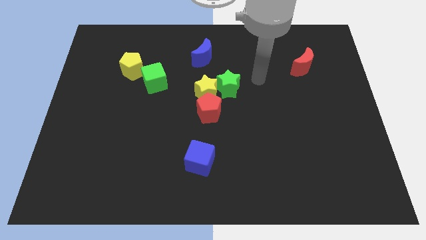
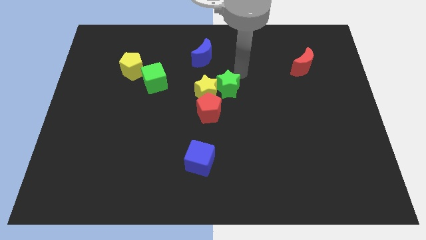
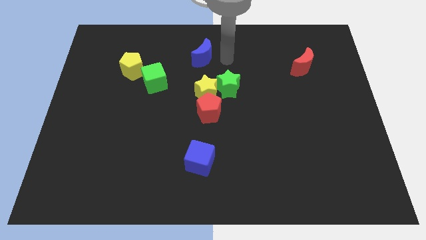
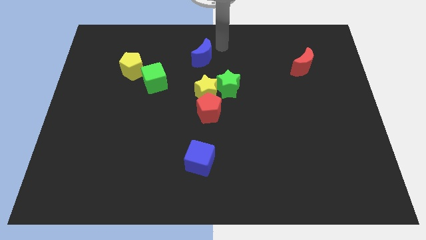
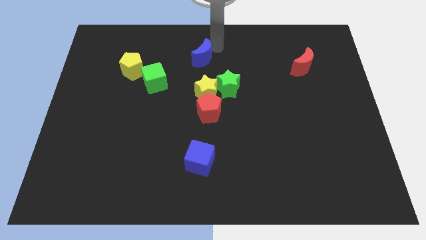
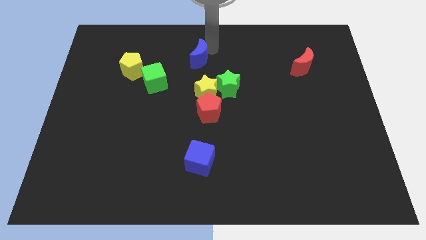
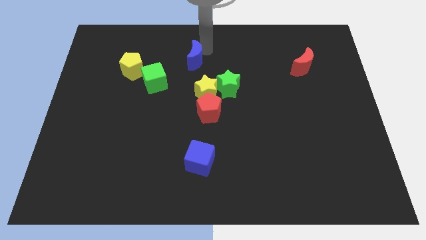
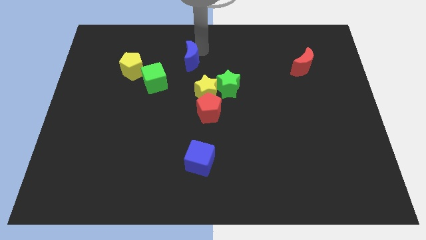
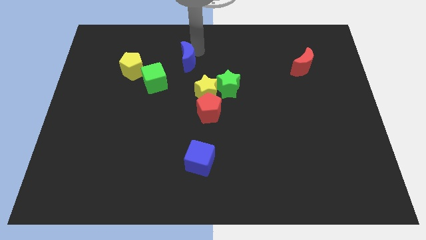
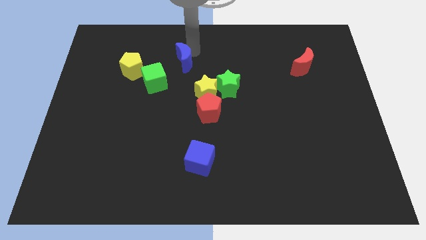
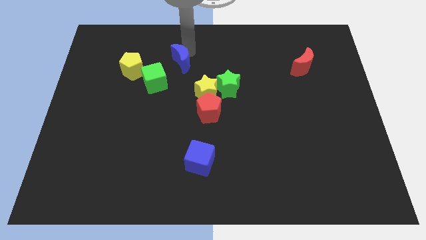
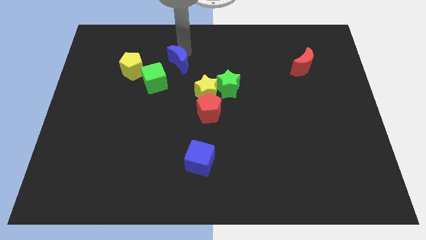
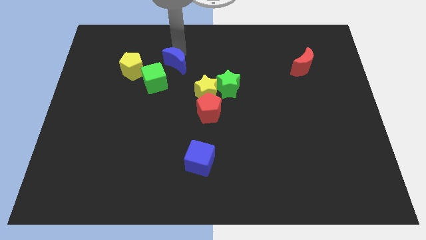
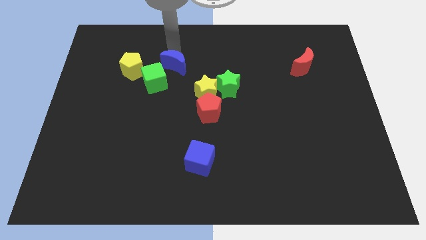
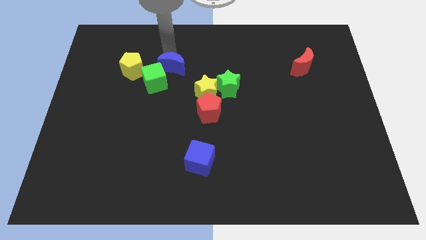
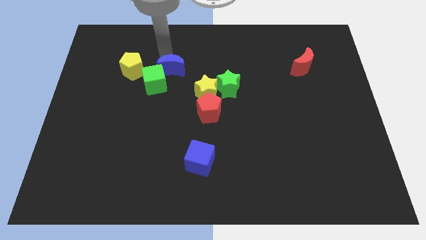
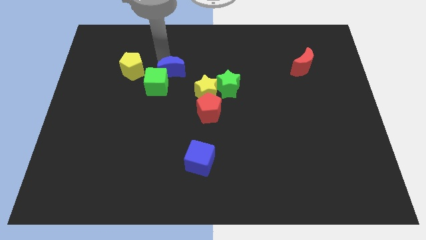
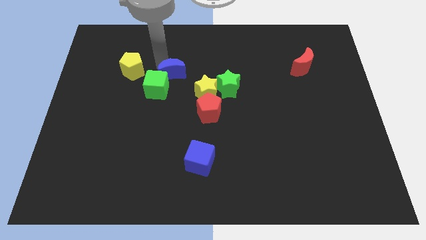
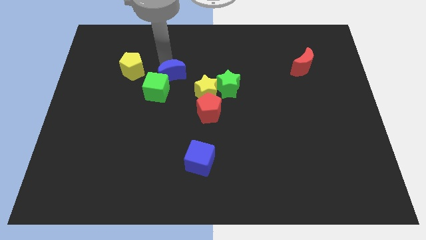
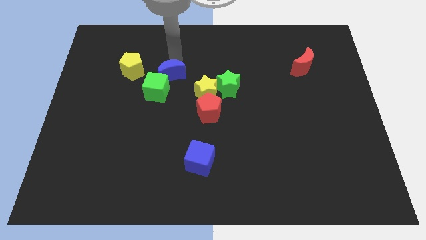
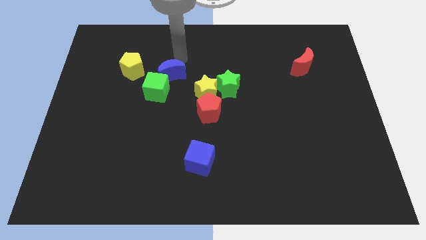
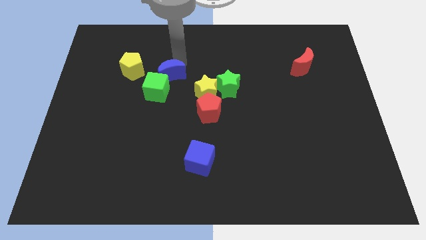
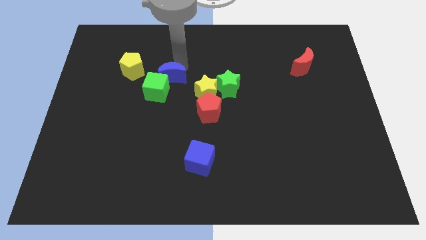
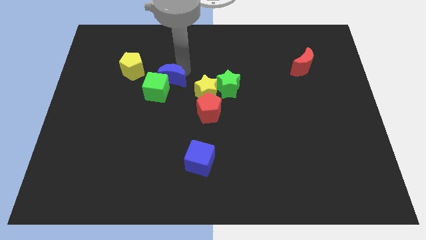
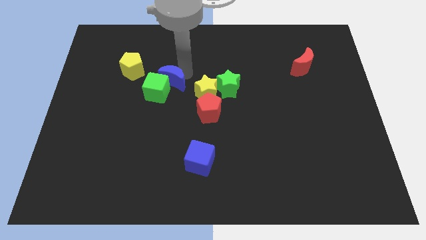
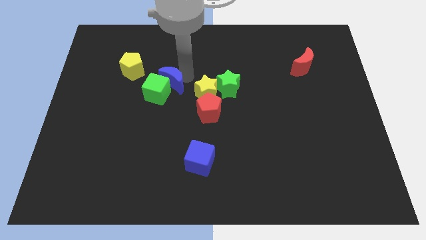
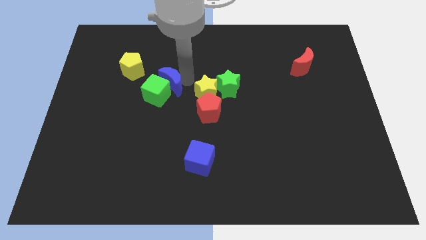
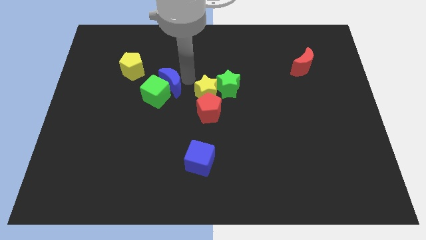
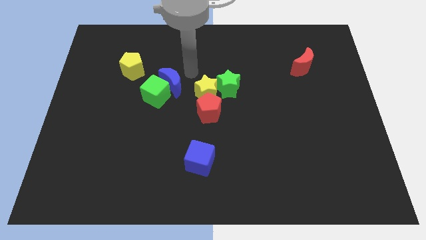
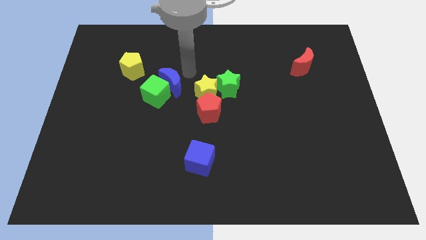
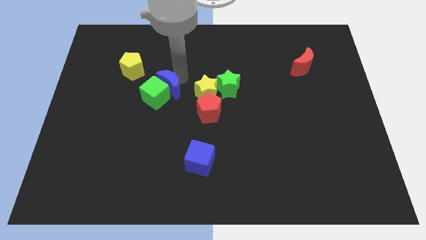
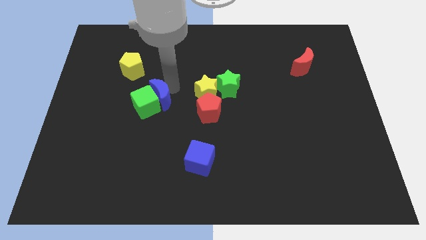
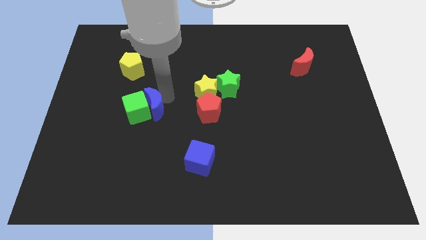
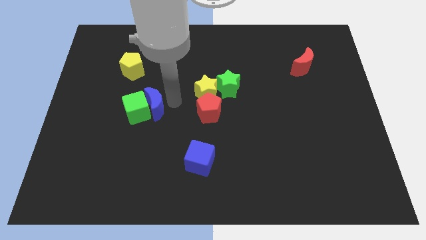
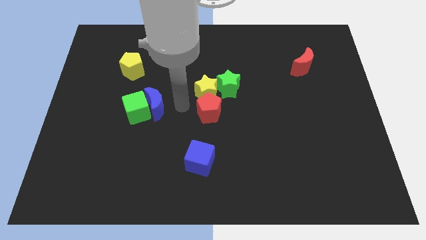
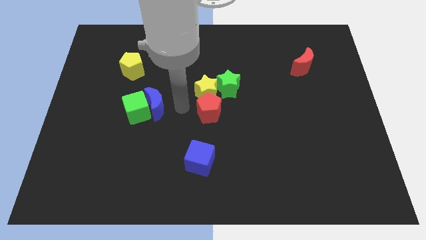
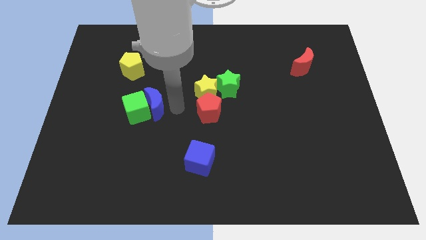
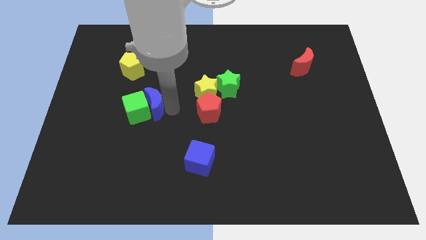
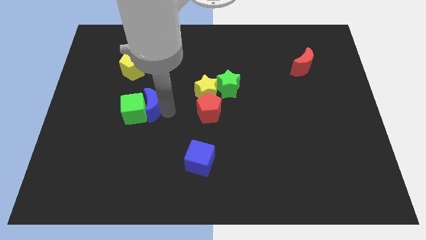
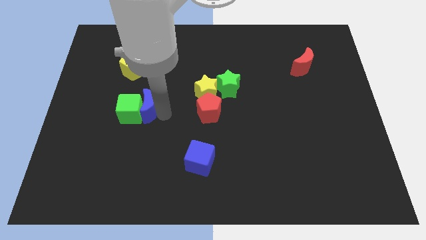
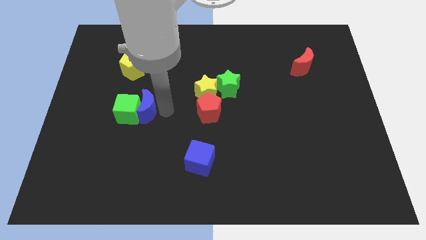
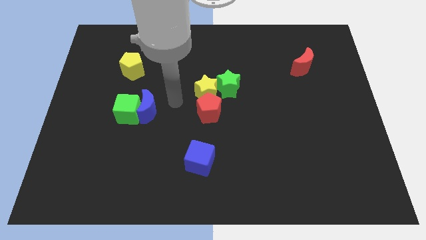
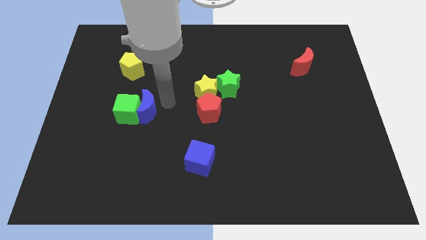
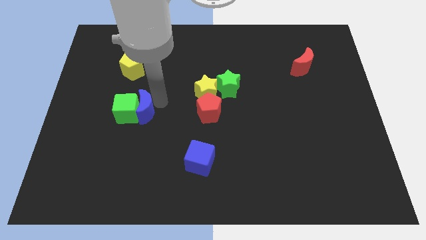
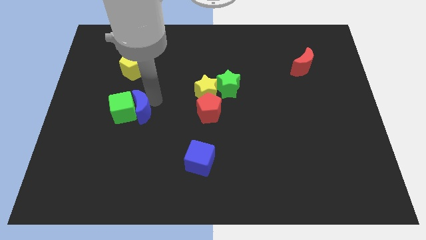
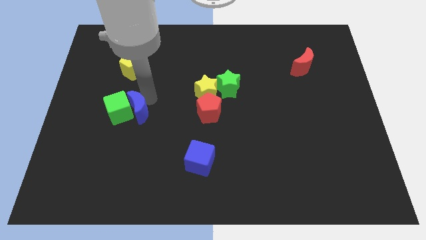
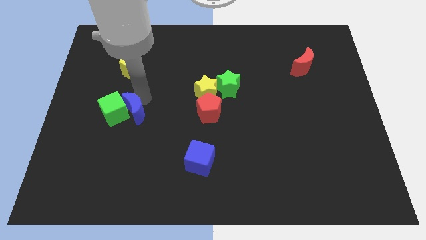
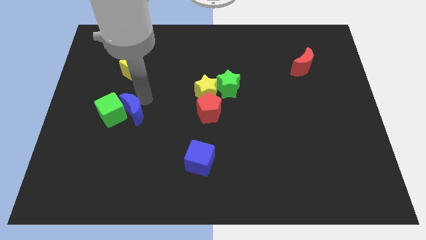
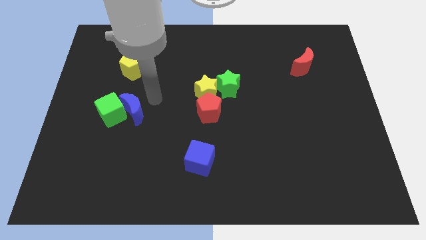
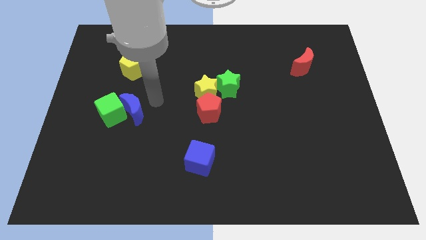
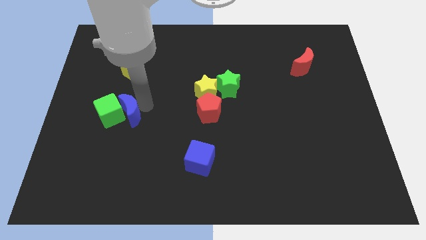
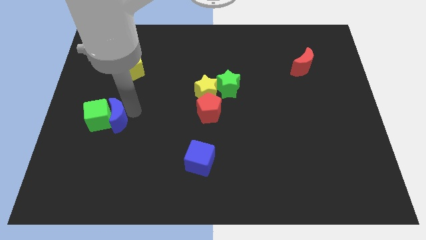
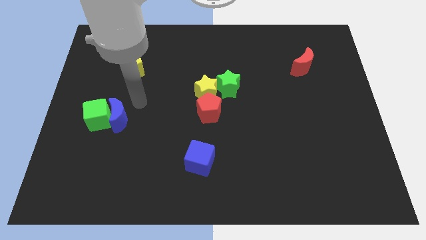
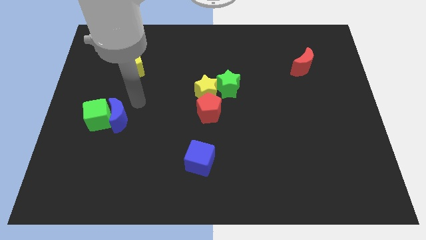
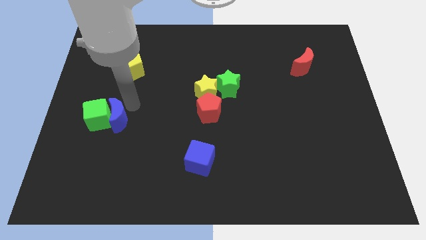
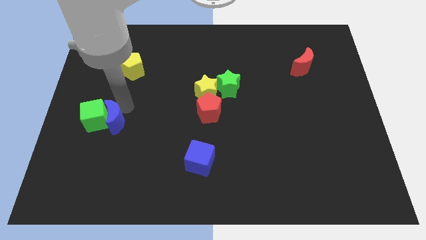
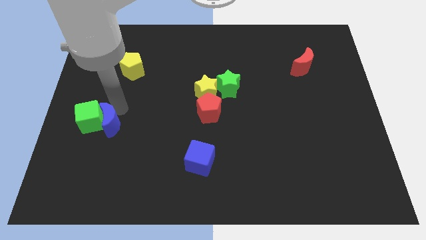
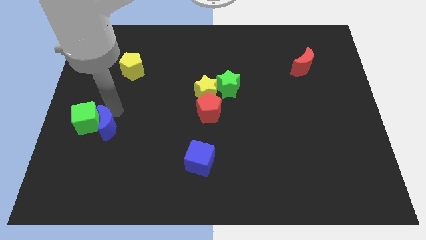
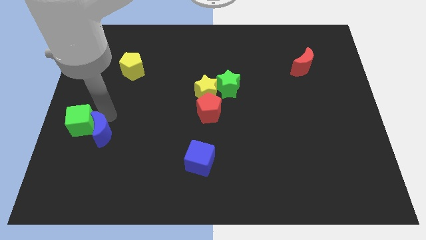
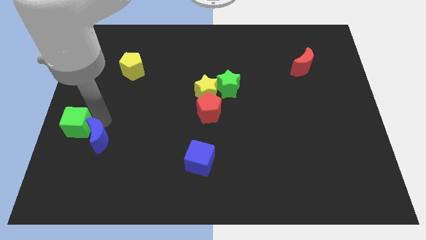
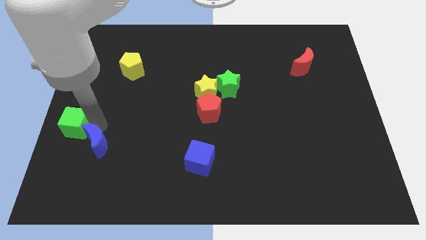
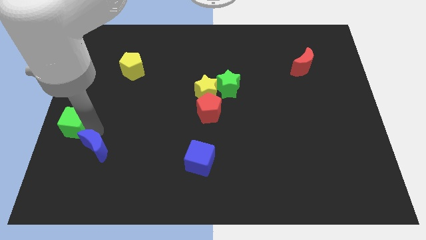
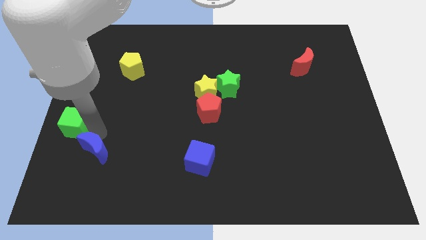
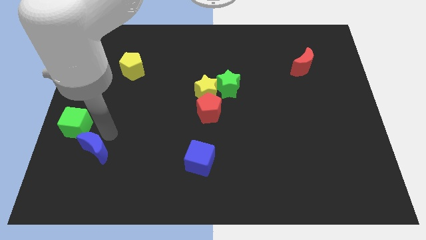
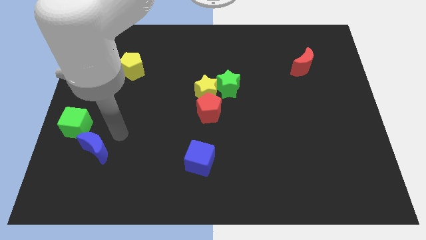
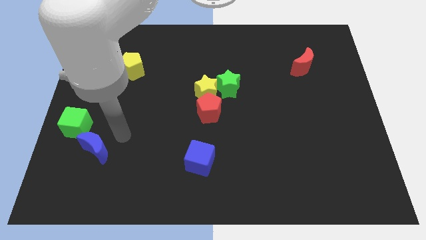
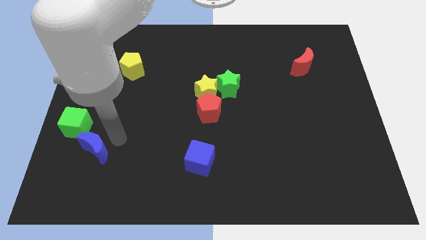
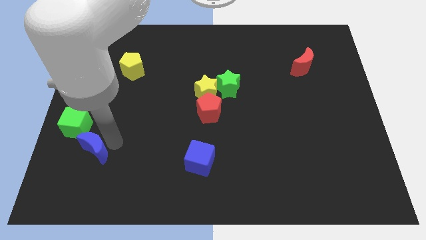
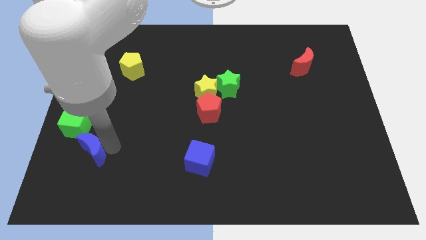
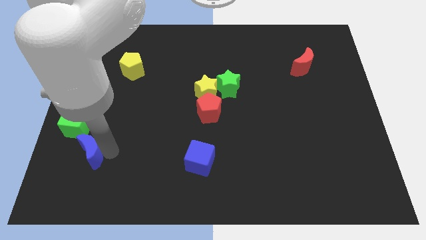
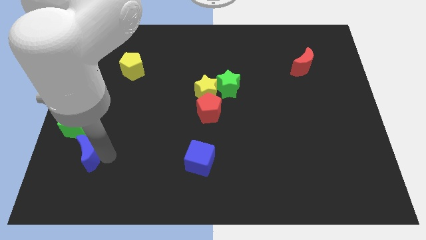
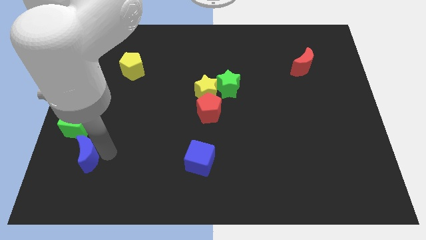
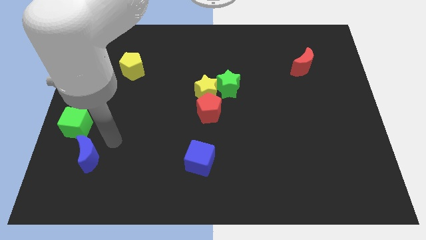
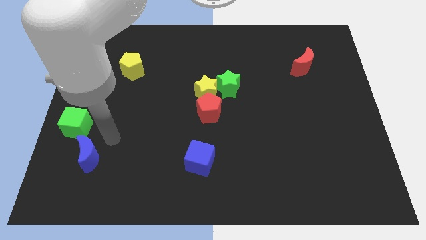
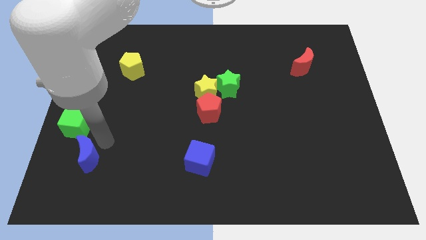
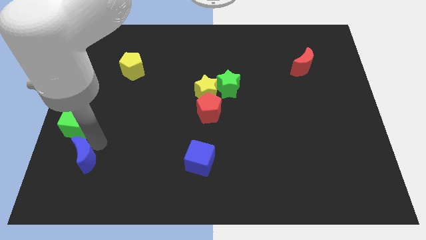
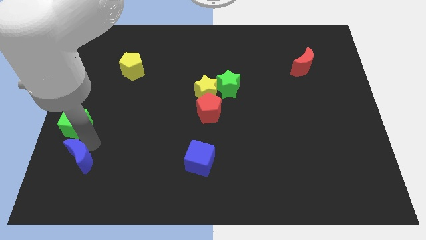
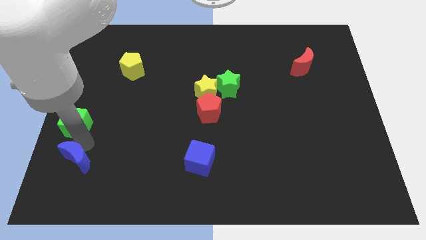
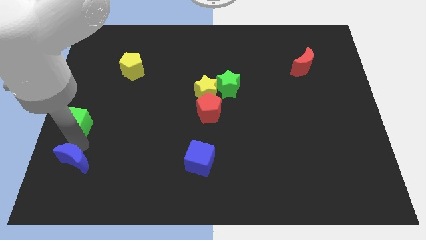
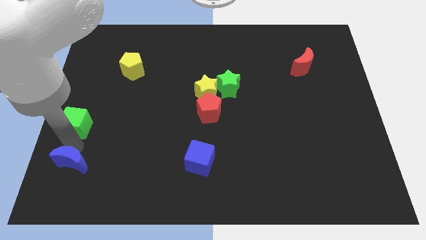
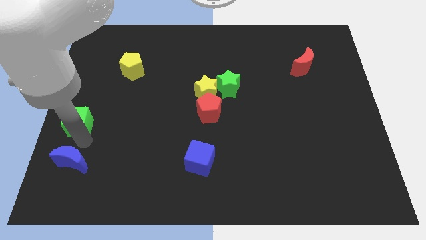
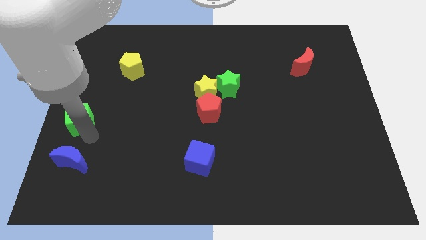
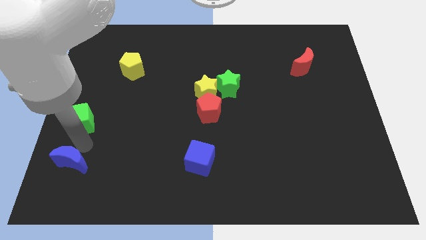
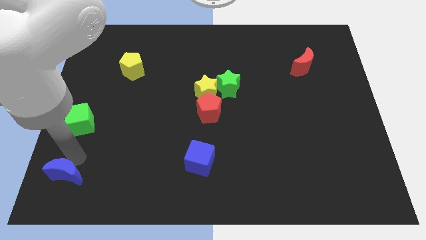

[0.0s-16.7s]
put the blue moon to the lower left corner

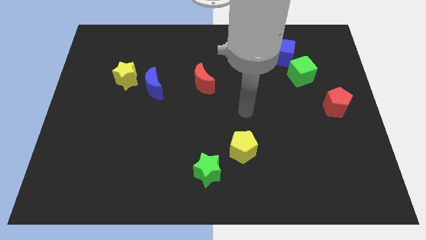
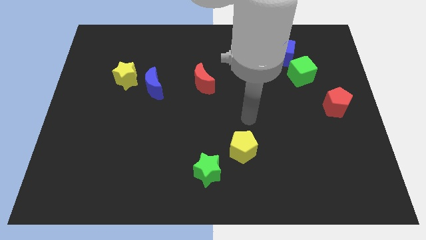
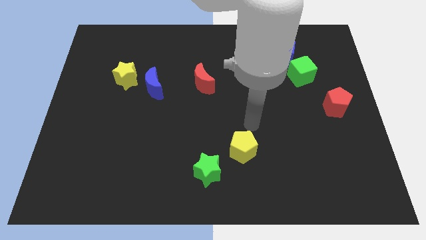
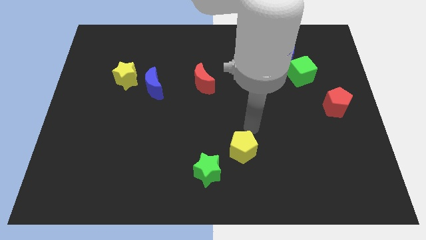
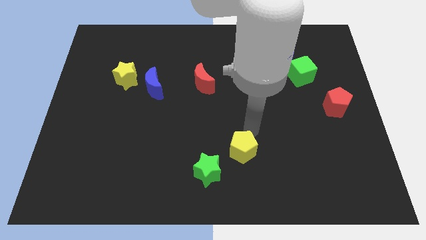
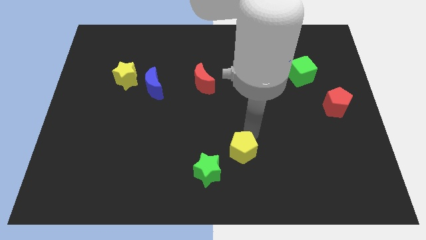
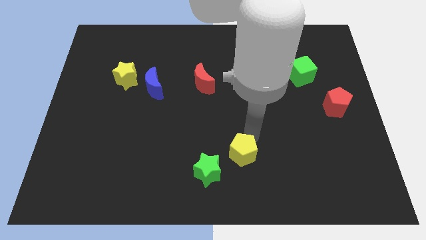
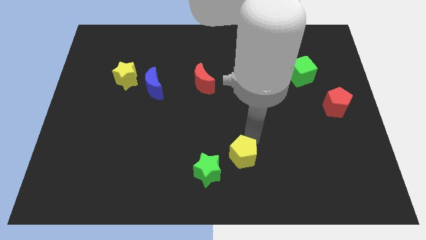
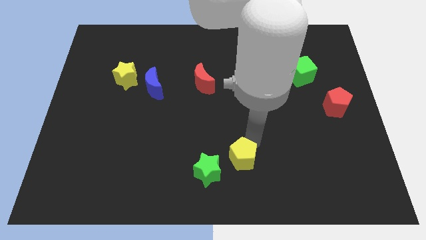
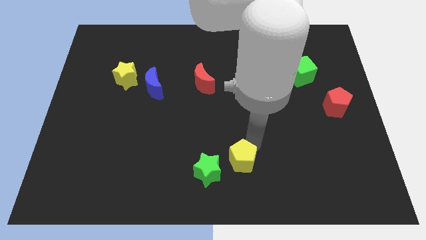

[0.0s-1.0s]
put the yellow pentagon to the bottom side
